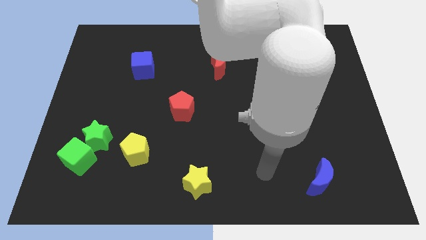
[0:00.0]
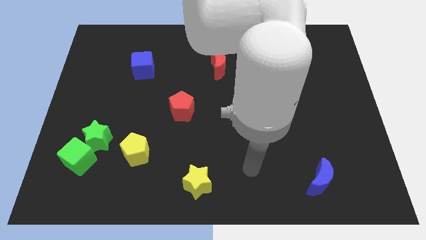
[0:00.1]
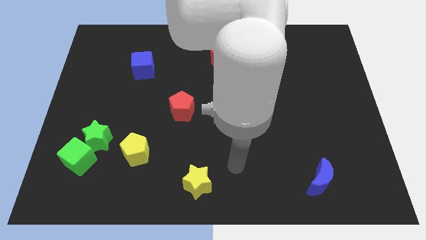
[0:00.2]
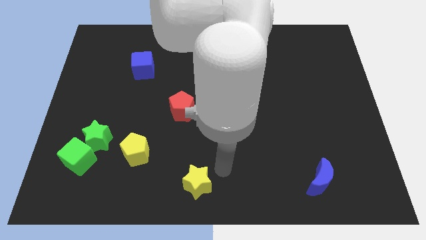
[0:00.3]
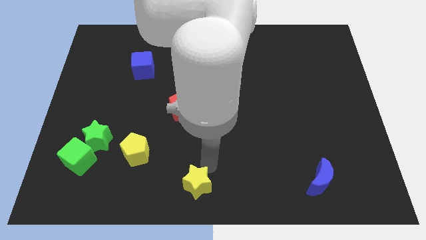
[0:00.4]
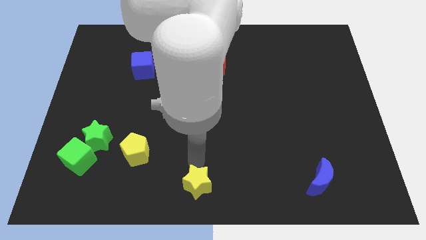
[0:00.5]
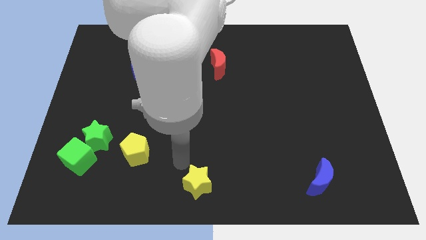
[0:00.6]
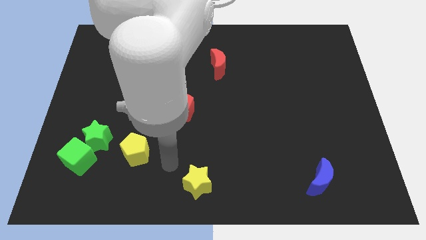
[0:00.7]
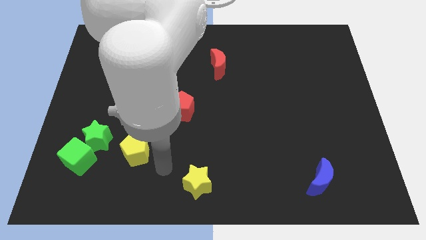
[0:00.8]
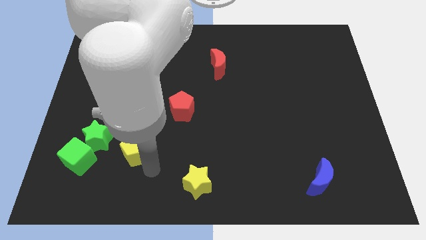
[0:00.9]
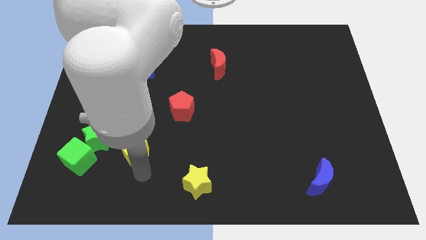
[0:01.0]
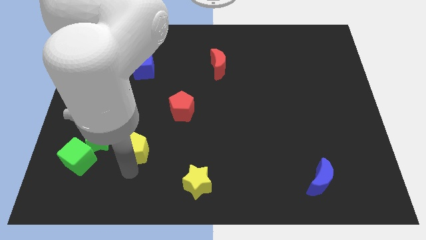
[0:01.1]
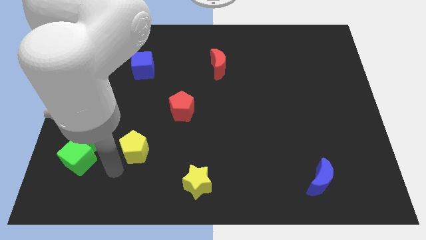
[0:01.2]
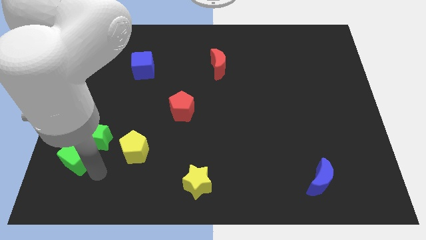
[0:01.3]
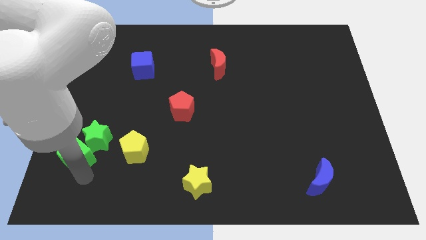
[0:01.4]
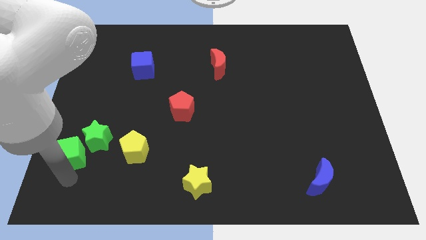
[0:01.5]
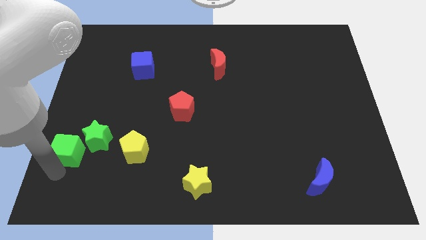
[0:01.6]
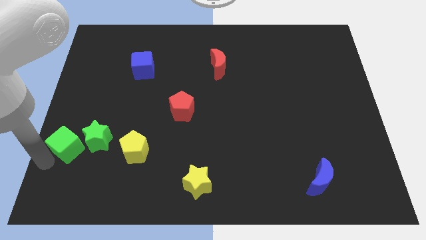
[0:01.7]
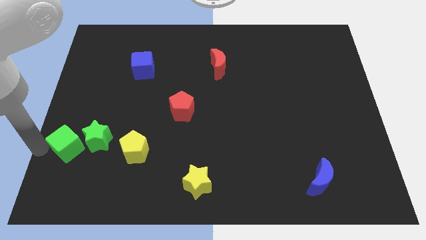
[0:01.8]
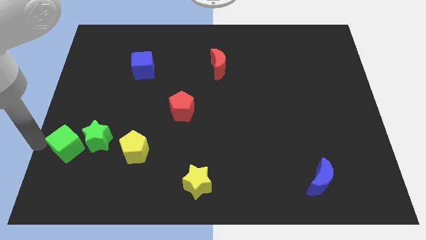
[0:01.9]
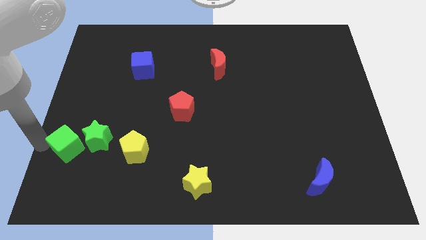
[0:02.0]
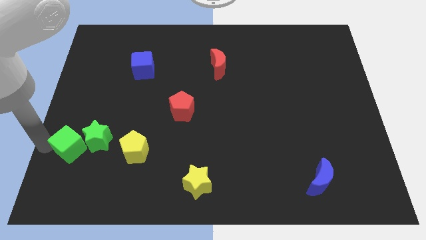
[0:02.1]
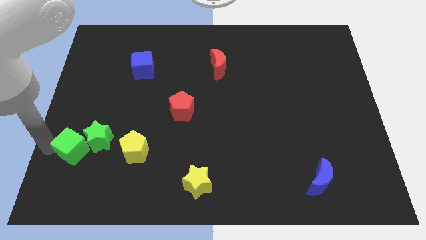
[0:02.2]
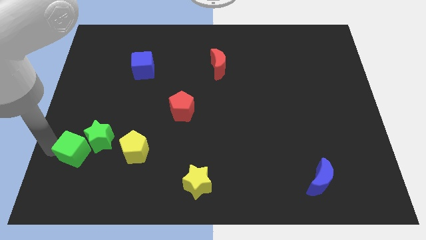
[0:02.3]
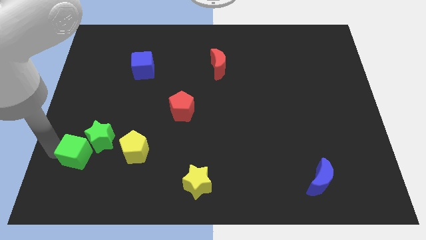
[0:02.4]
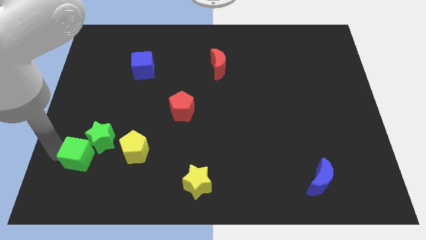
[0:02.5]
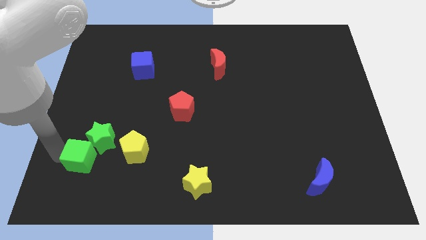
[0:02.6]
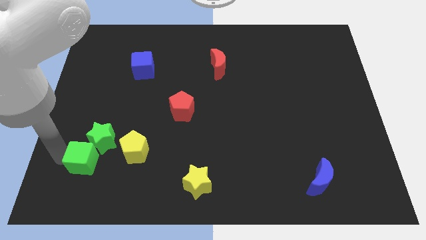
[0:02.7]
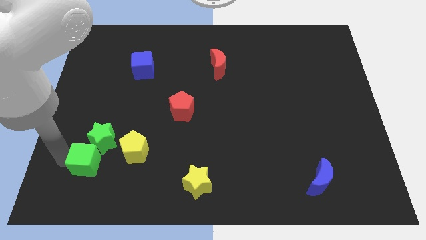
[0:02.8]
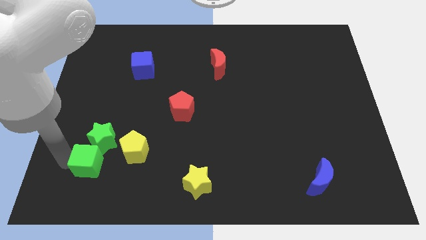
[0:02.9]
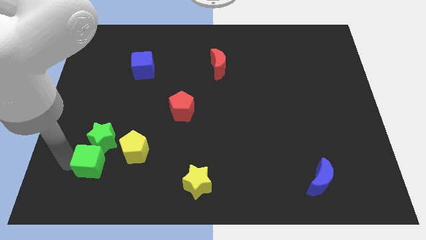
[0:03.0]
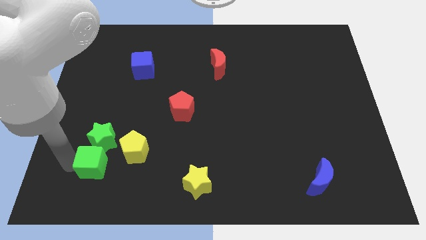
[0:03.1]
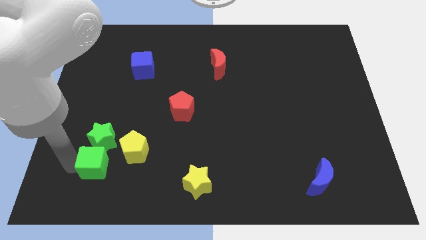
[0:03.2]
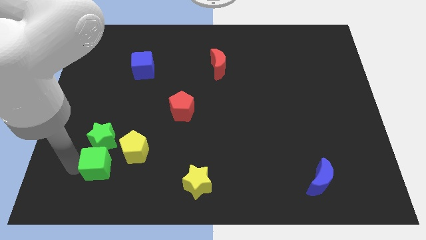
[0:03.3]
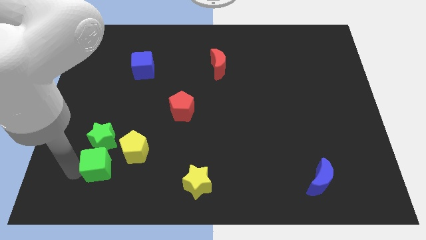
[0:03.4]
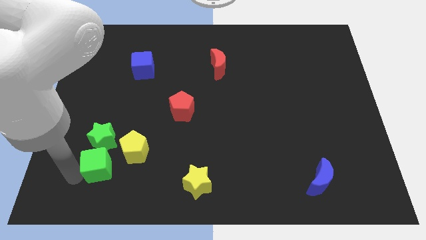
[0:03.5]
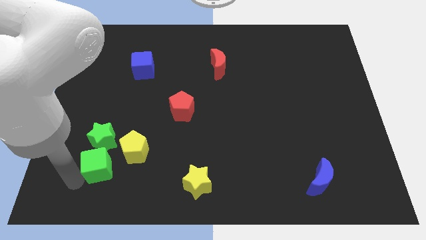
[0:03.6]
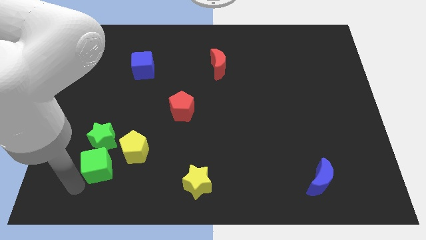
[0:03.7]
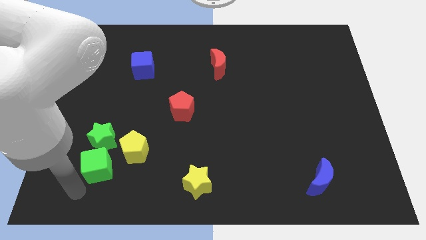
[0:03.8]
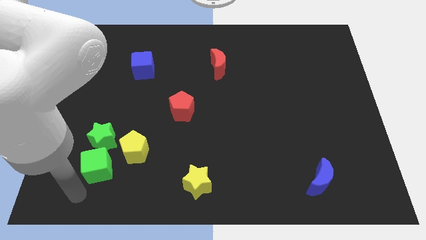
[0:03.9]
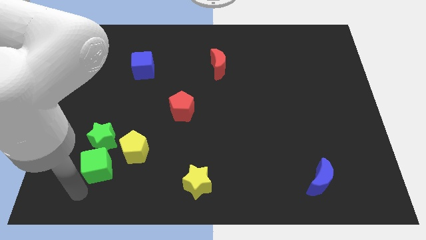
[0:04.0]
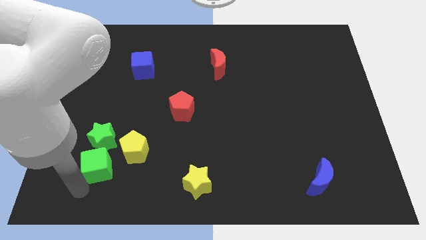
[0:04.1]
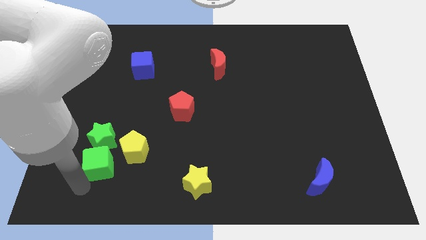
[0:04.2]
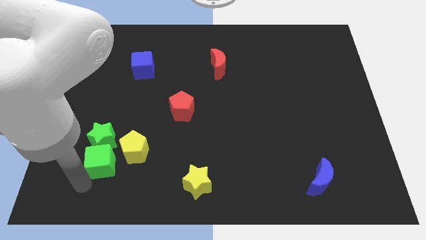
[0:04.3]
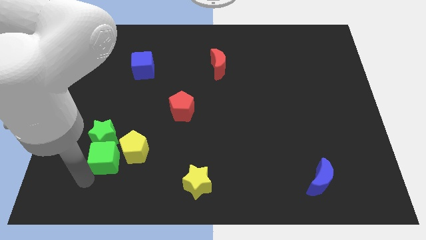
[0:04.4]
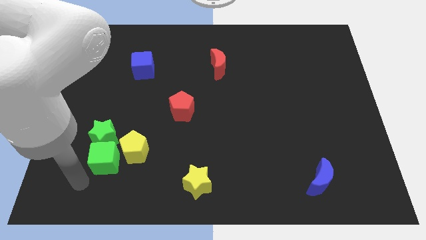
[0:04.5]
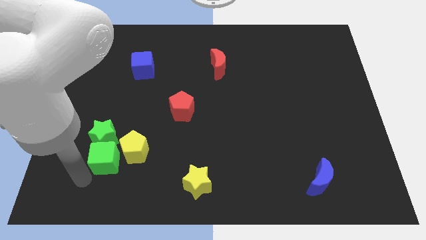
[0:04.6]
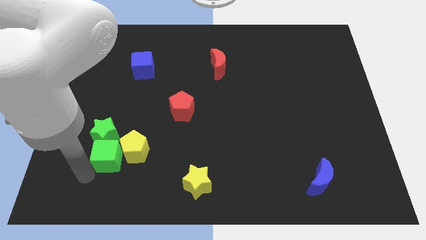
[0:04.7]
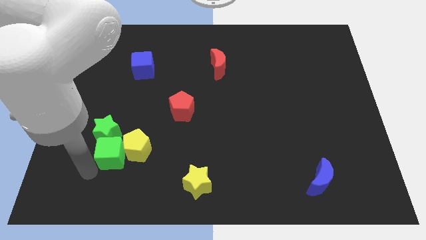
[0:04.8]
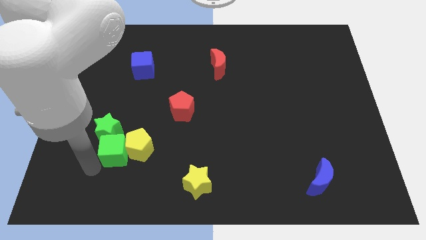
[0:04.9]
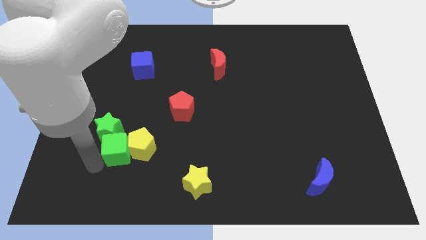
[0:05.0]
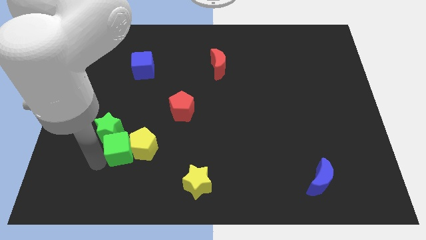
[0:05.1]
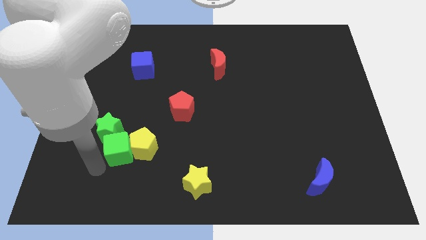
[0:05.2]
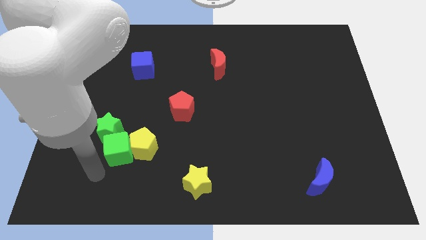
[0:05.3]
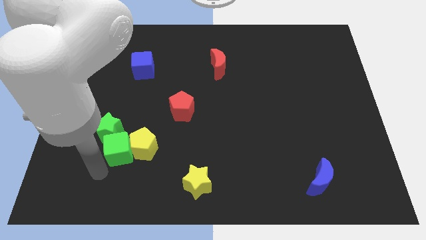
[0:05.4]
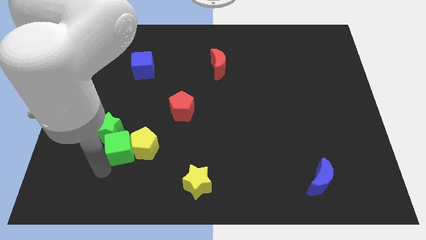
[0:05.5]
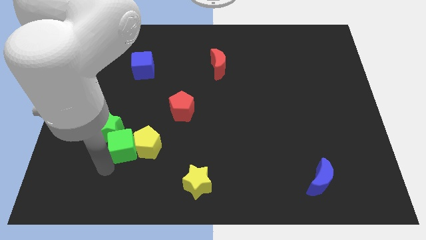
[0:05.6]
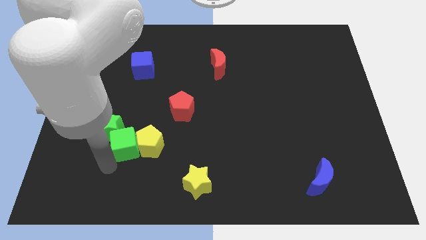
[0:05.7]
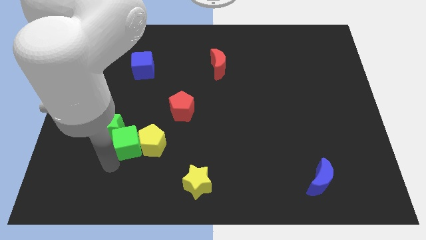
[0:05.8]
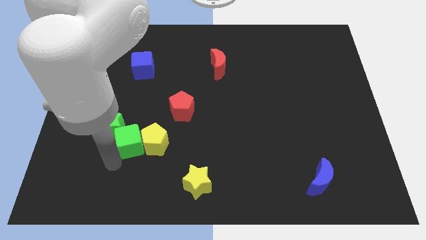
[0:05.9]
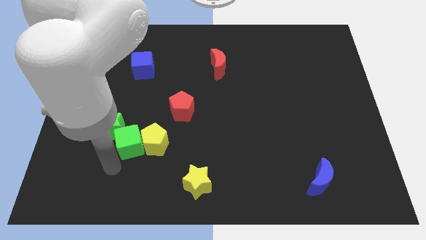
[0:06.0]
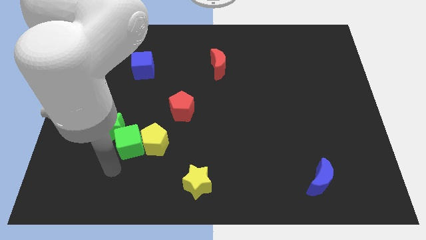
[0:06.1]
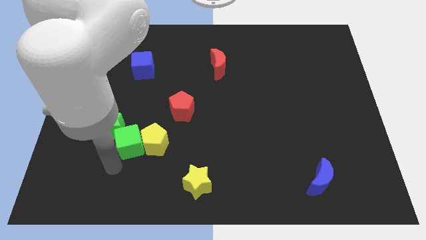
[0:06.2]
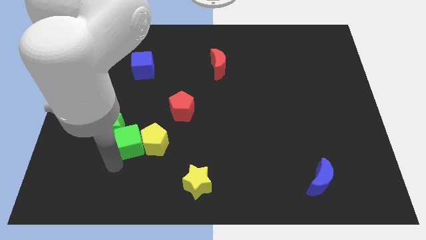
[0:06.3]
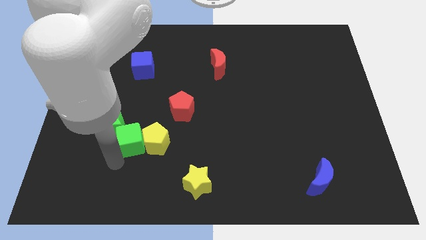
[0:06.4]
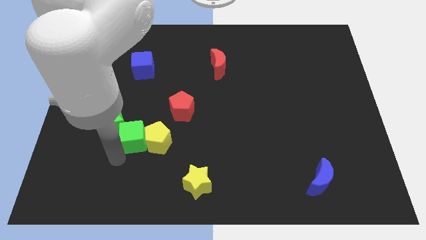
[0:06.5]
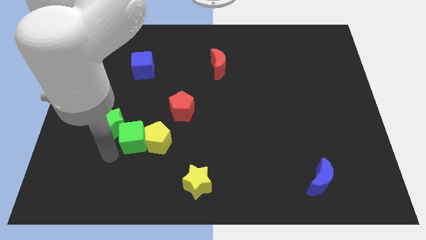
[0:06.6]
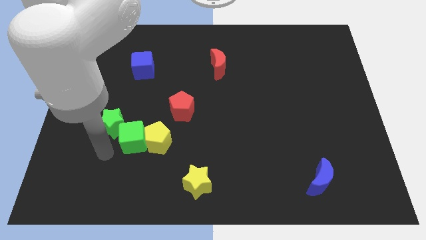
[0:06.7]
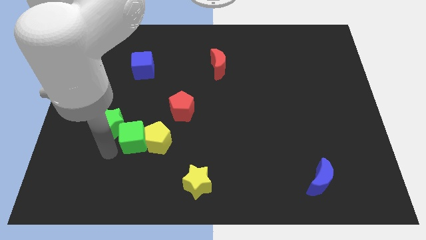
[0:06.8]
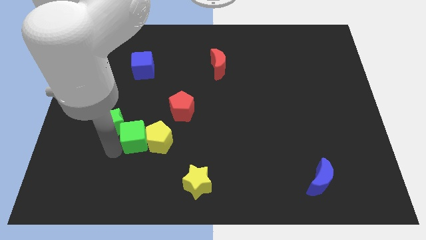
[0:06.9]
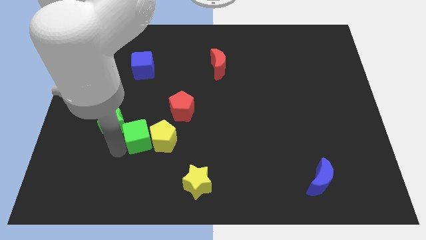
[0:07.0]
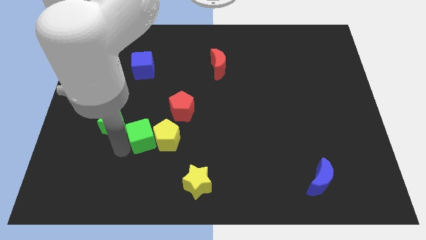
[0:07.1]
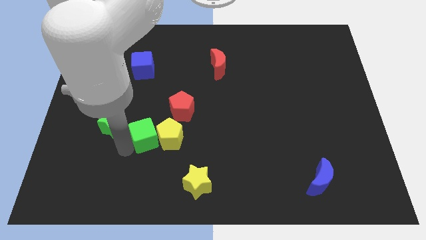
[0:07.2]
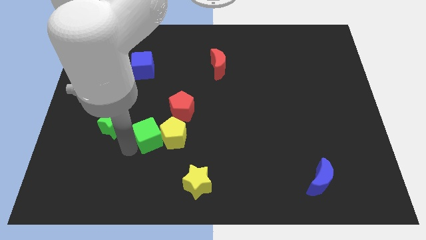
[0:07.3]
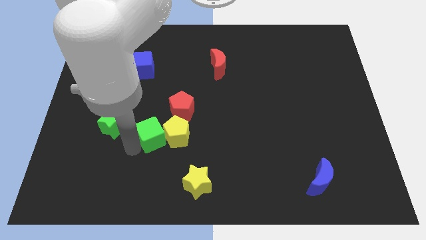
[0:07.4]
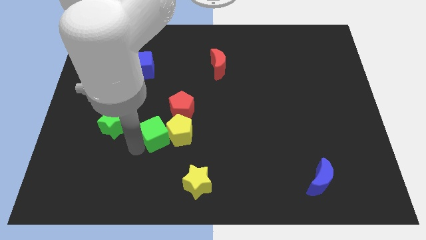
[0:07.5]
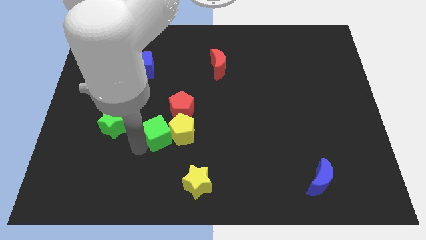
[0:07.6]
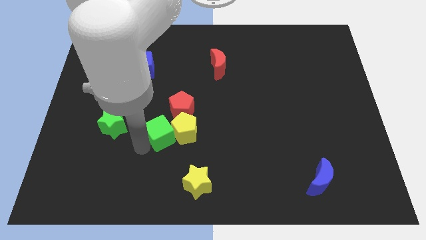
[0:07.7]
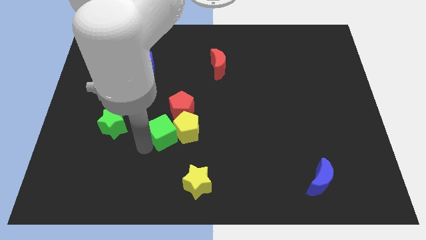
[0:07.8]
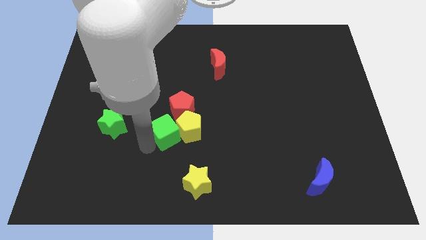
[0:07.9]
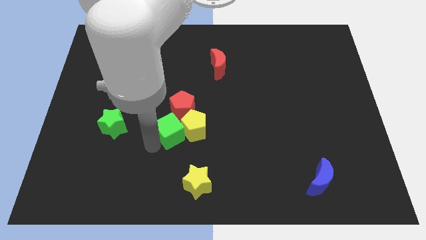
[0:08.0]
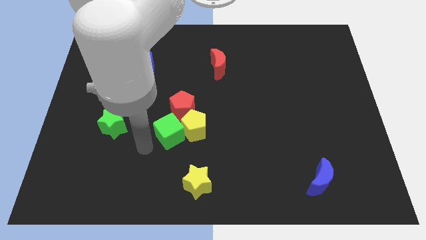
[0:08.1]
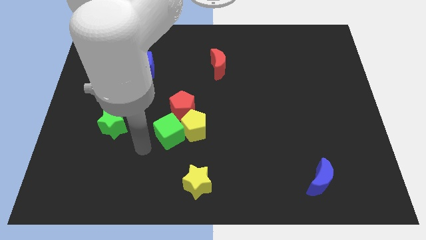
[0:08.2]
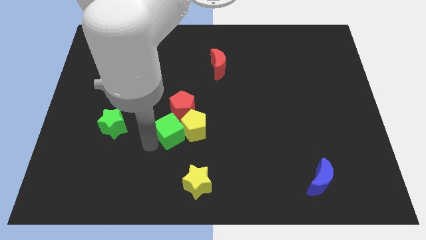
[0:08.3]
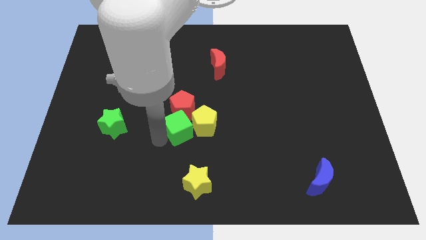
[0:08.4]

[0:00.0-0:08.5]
move the green cube to the middle of the board
